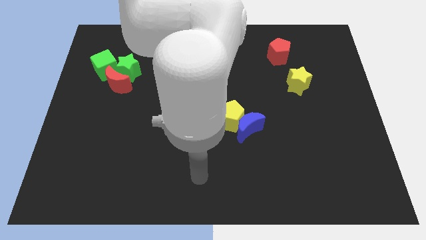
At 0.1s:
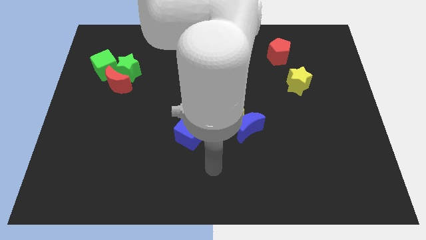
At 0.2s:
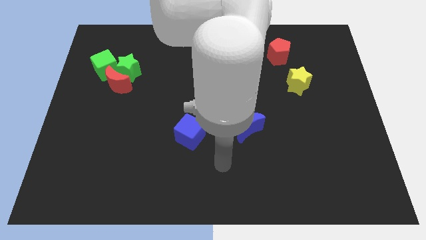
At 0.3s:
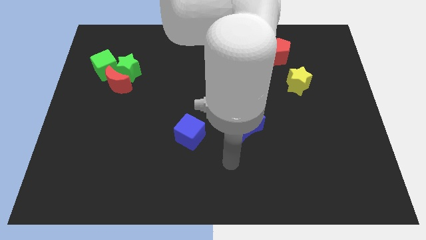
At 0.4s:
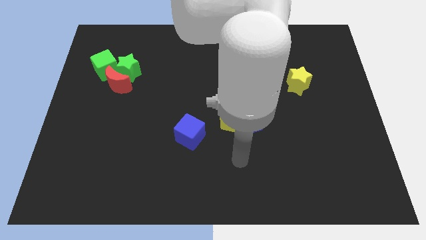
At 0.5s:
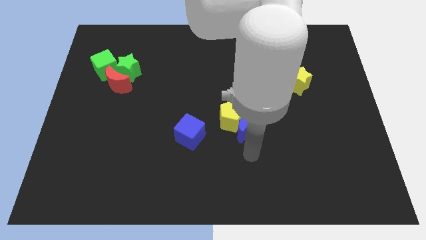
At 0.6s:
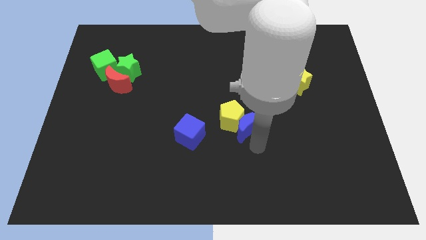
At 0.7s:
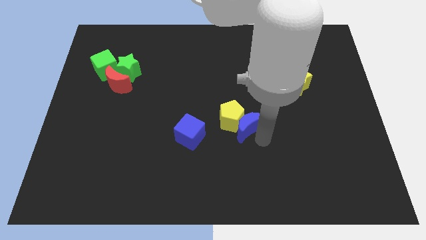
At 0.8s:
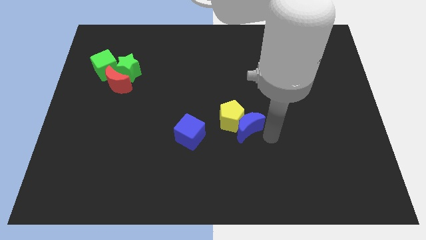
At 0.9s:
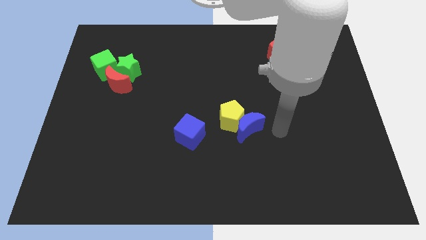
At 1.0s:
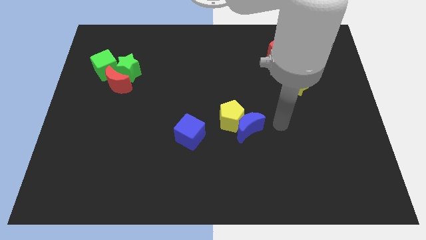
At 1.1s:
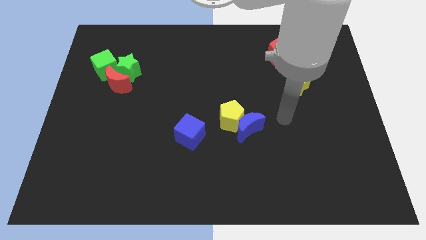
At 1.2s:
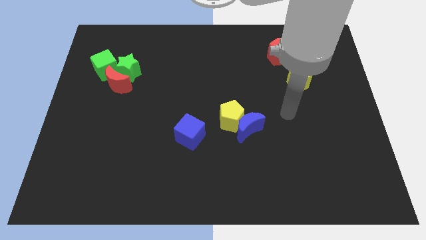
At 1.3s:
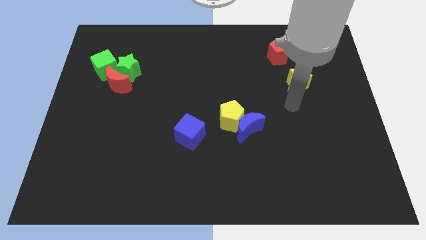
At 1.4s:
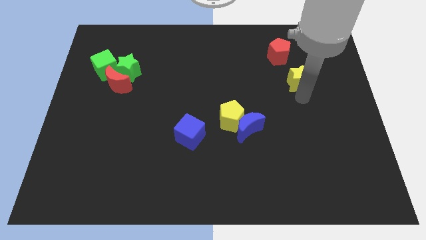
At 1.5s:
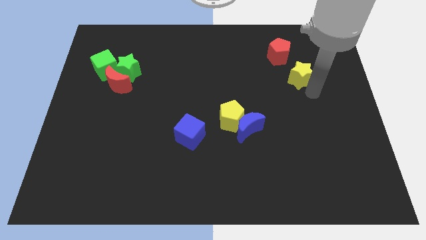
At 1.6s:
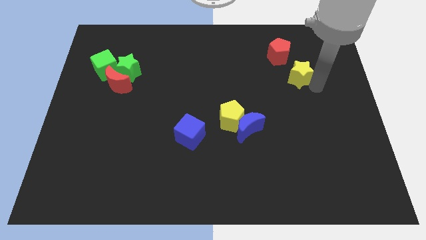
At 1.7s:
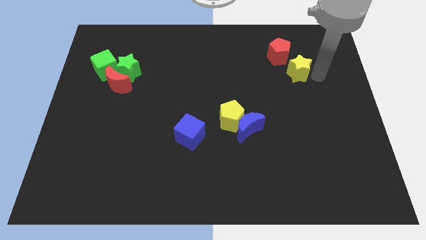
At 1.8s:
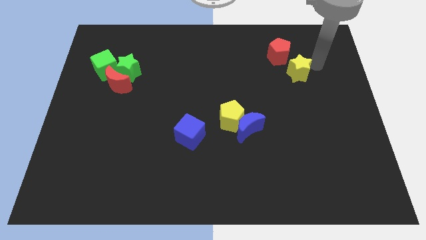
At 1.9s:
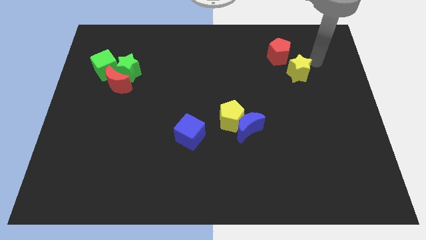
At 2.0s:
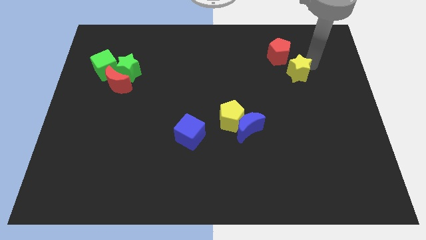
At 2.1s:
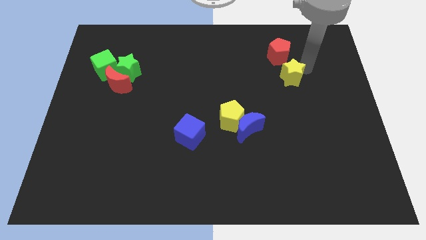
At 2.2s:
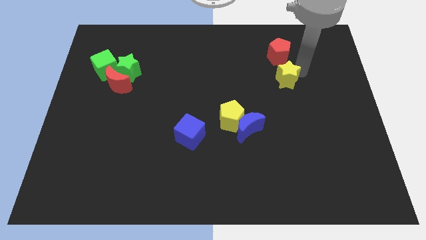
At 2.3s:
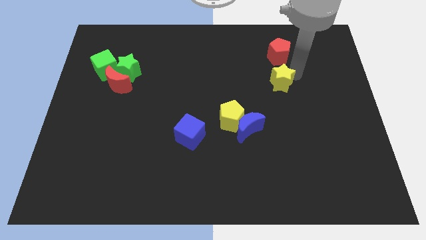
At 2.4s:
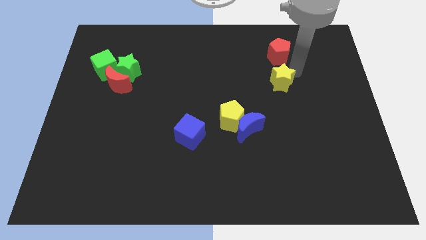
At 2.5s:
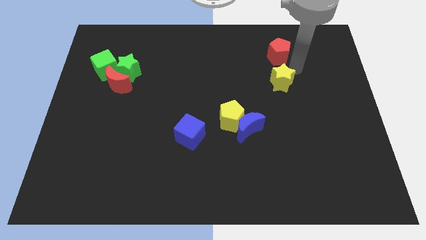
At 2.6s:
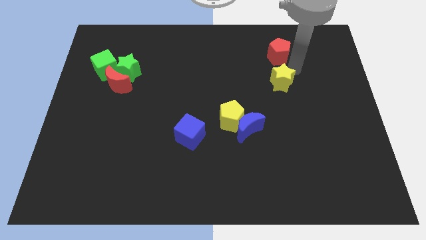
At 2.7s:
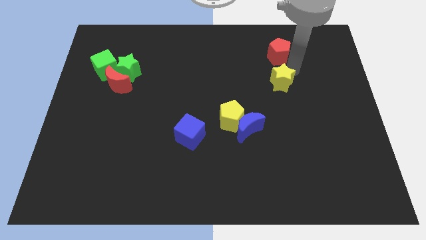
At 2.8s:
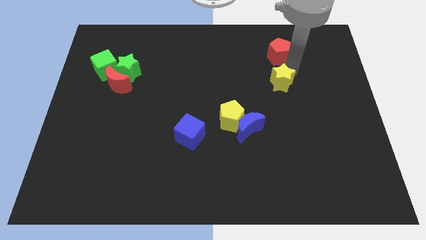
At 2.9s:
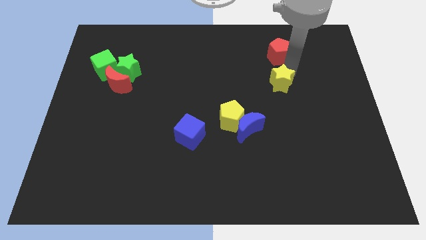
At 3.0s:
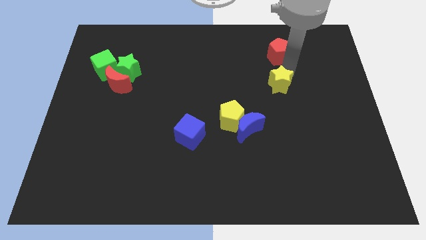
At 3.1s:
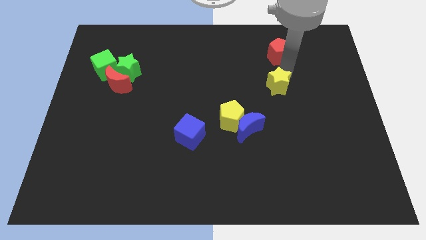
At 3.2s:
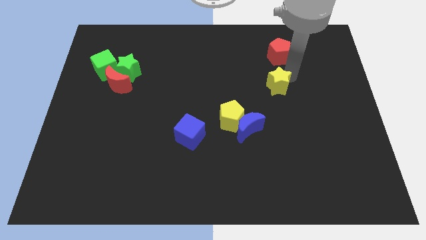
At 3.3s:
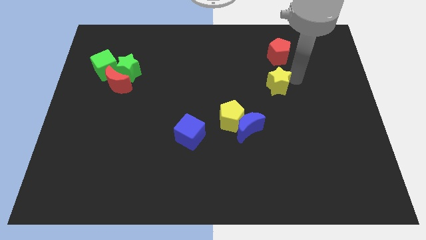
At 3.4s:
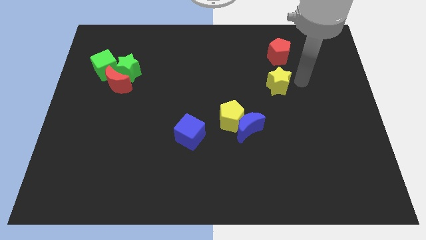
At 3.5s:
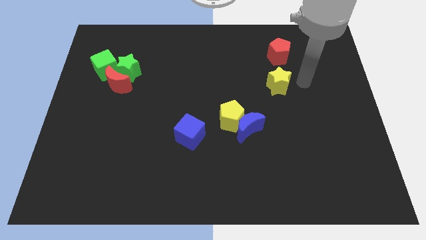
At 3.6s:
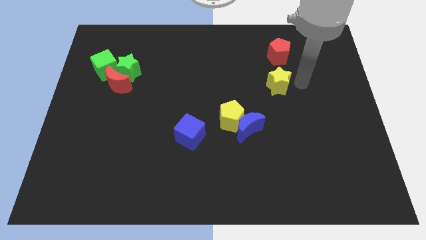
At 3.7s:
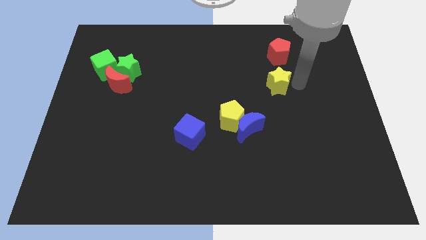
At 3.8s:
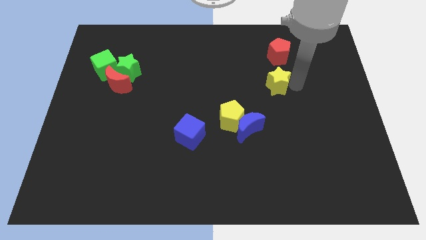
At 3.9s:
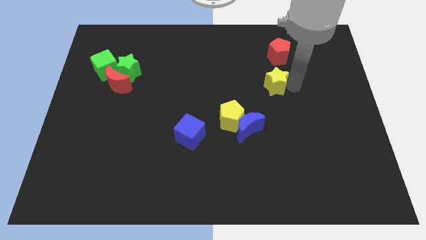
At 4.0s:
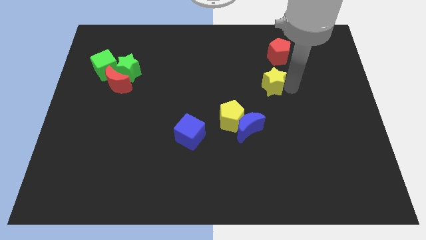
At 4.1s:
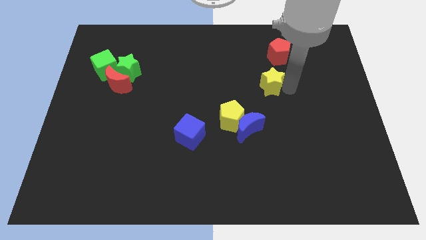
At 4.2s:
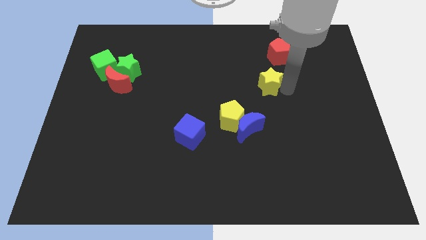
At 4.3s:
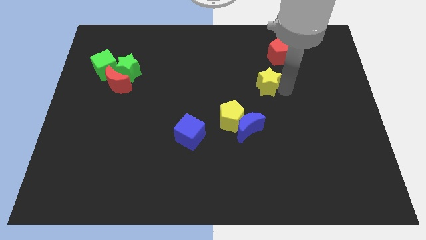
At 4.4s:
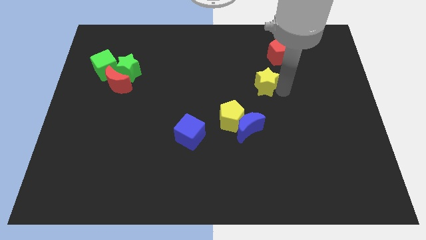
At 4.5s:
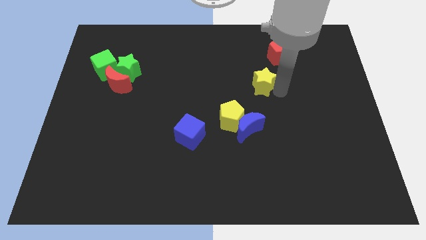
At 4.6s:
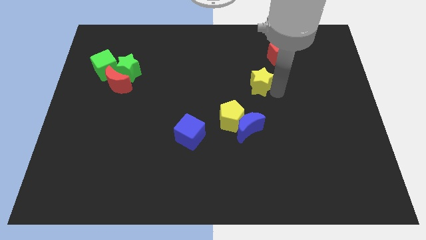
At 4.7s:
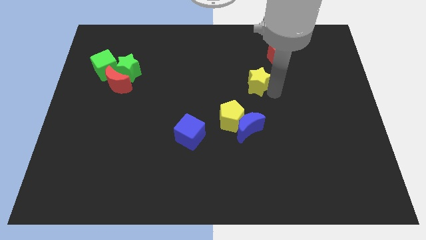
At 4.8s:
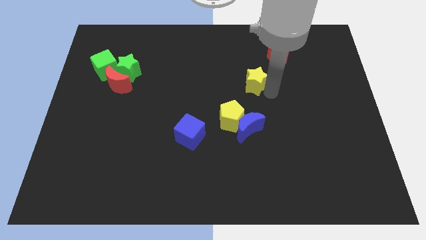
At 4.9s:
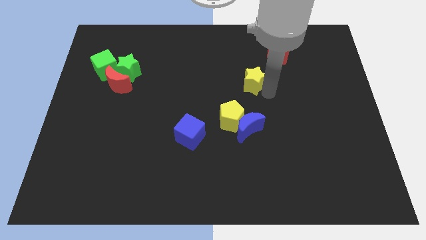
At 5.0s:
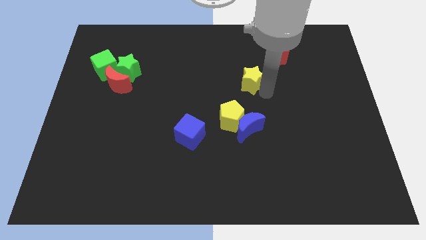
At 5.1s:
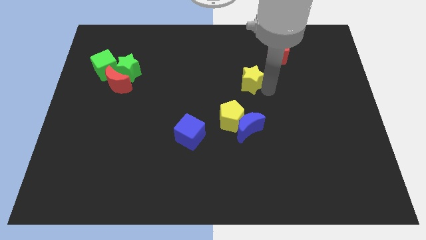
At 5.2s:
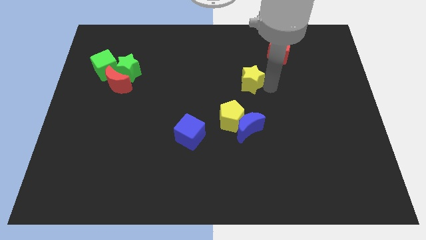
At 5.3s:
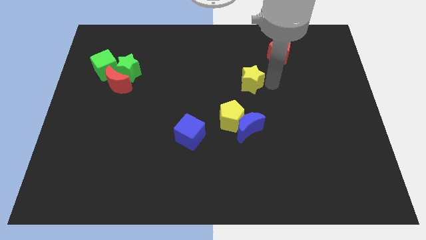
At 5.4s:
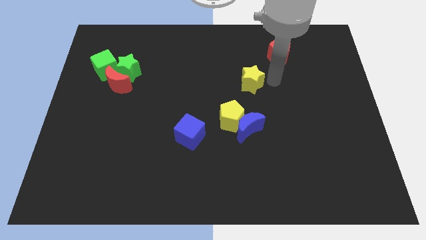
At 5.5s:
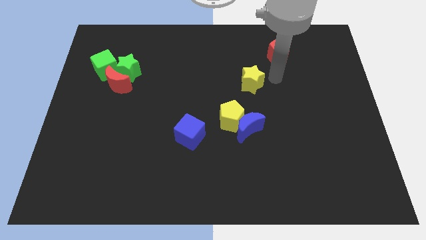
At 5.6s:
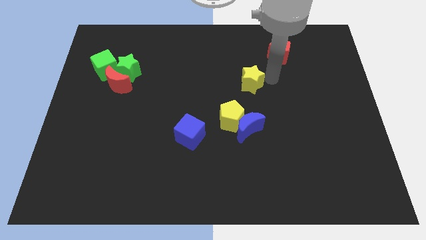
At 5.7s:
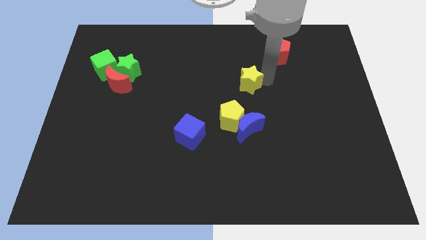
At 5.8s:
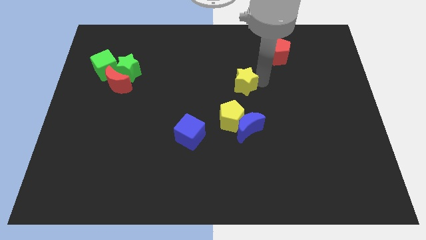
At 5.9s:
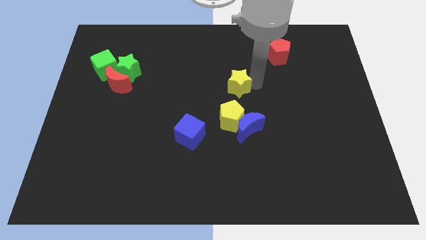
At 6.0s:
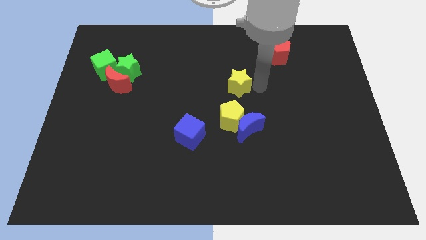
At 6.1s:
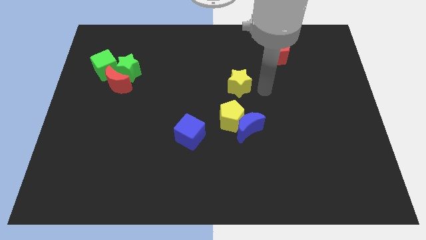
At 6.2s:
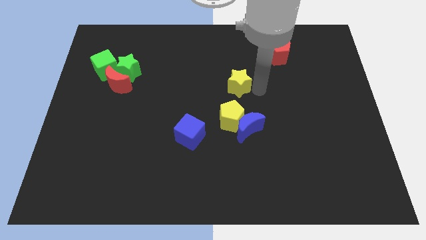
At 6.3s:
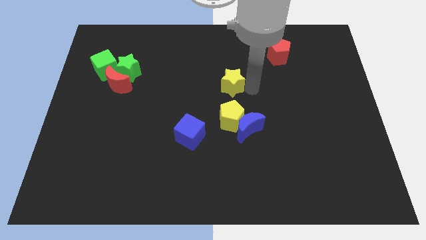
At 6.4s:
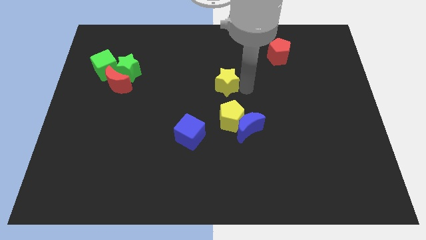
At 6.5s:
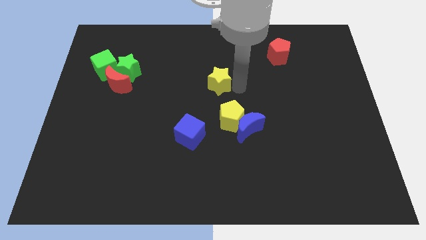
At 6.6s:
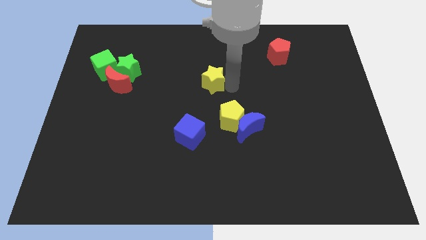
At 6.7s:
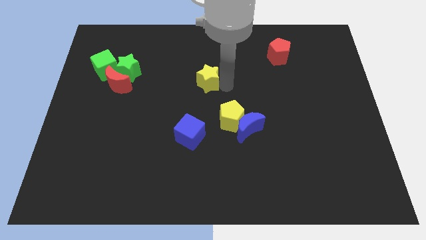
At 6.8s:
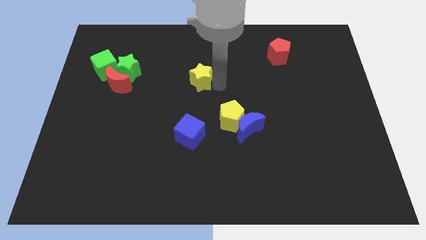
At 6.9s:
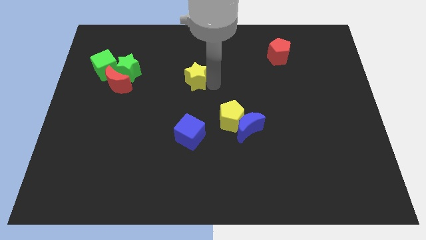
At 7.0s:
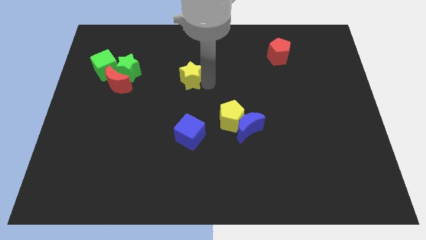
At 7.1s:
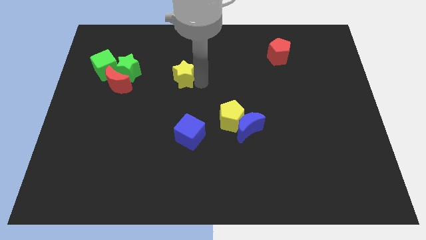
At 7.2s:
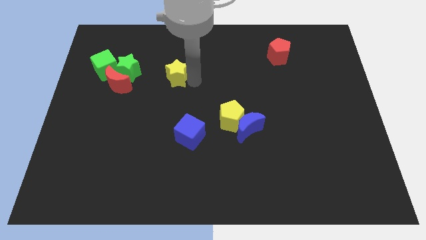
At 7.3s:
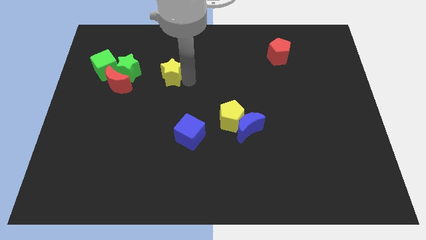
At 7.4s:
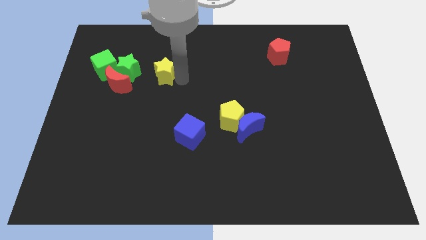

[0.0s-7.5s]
push the yellow star to the right side of the green cube
